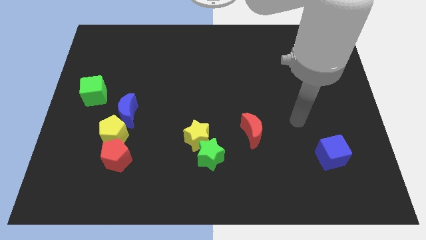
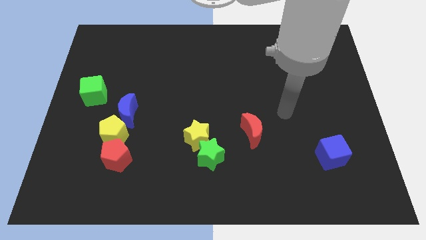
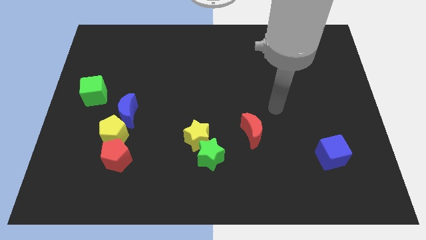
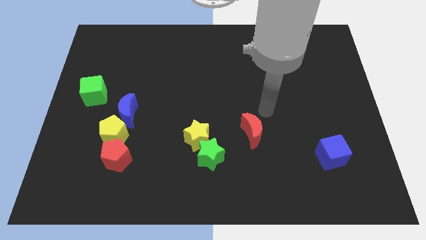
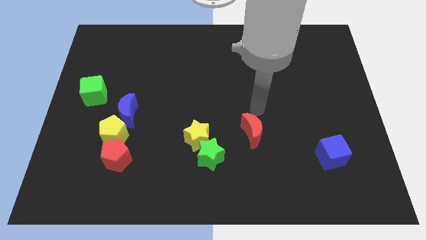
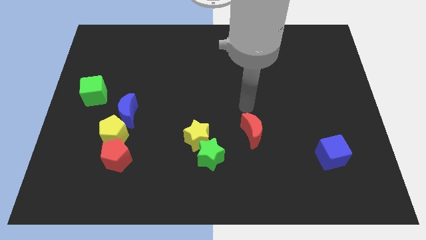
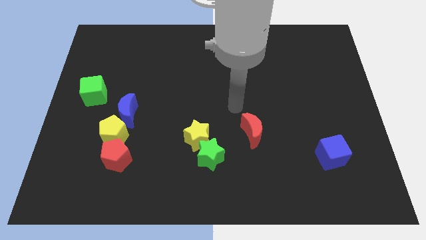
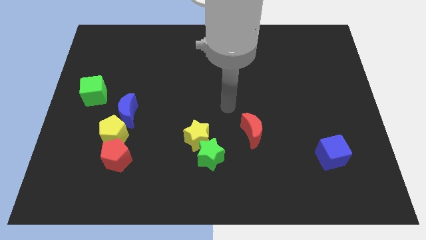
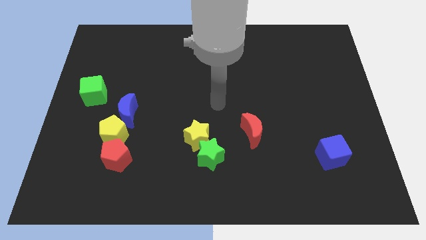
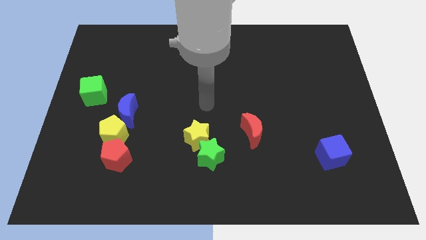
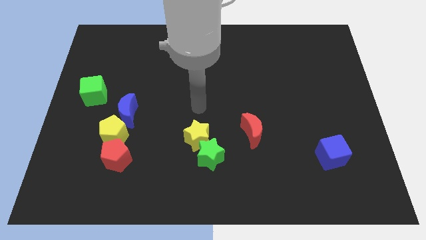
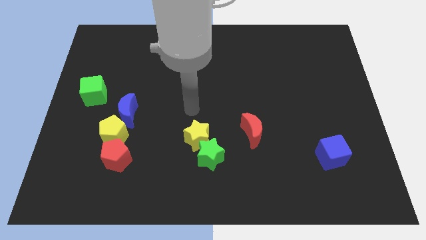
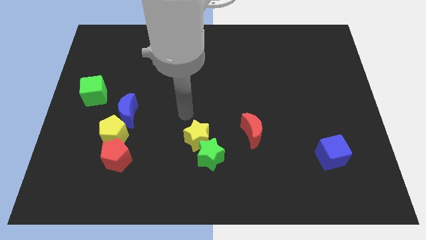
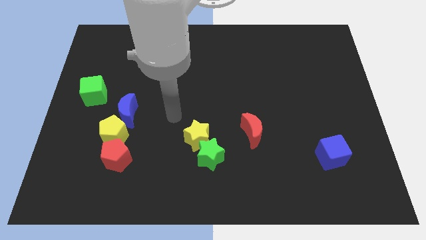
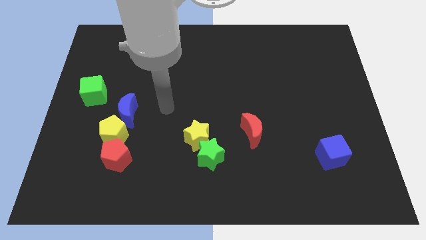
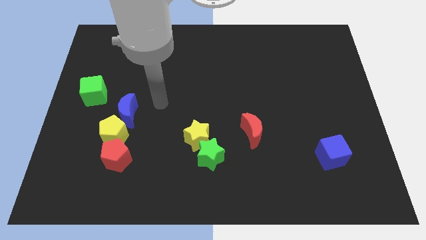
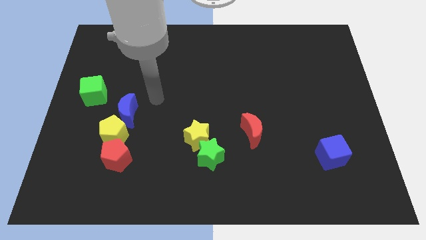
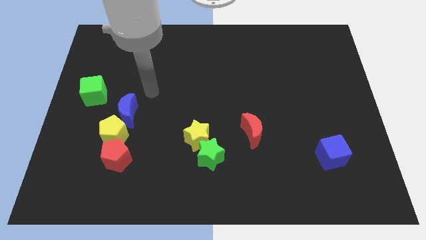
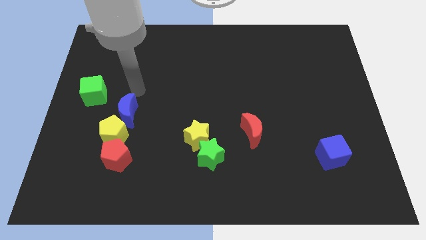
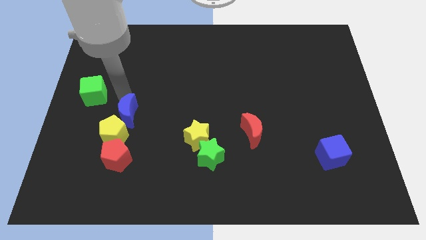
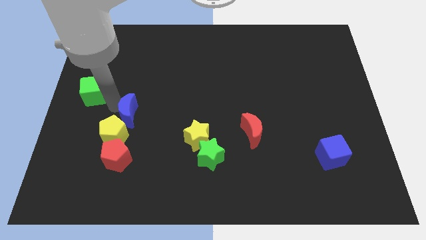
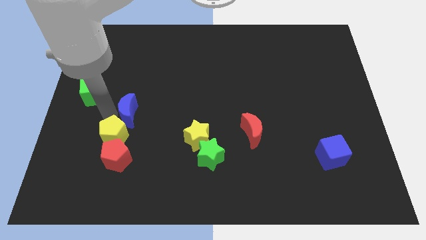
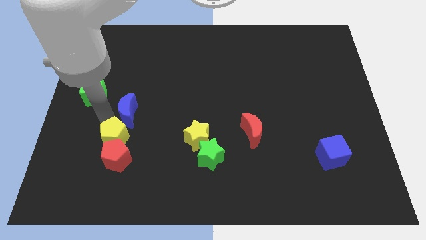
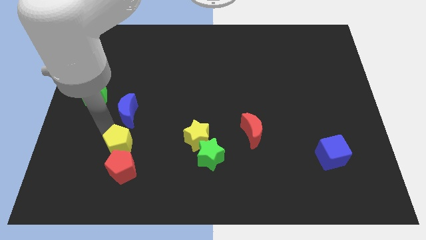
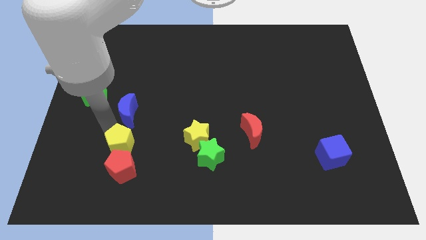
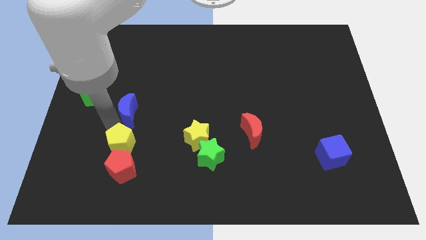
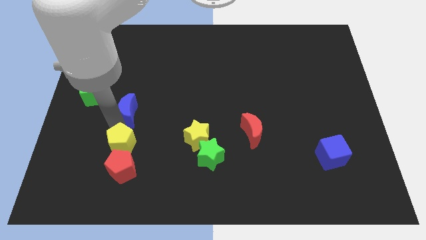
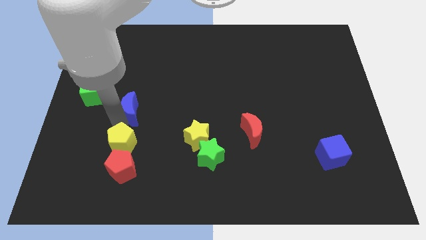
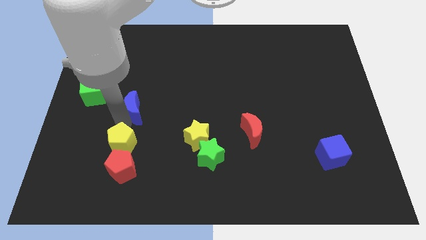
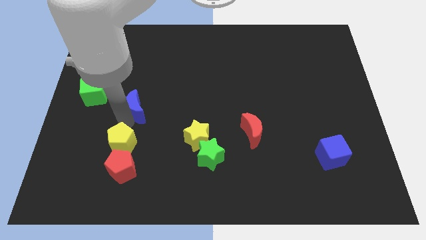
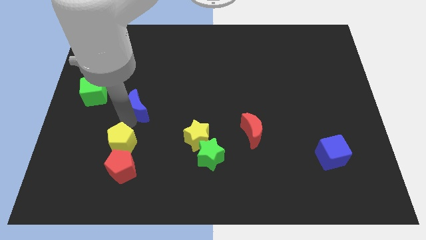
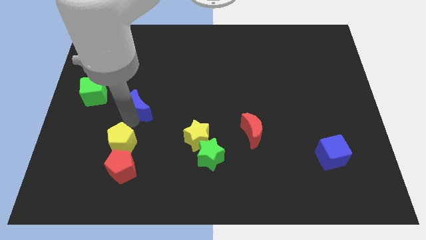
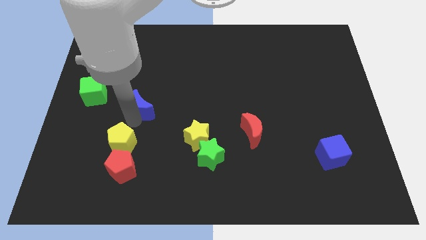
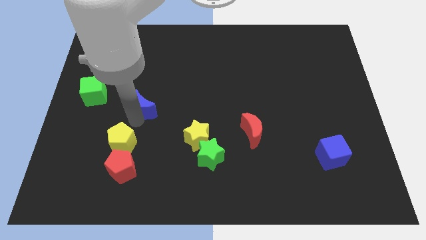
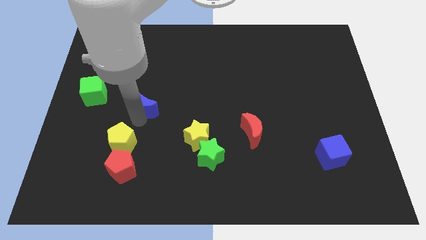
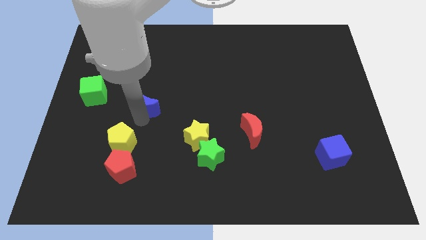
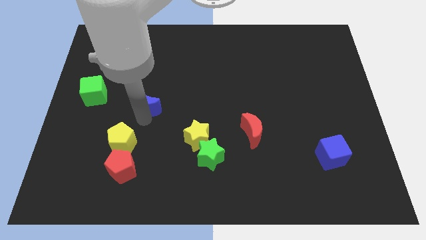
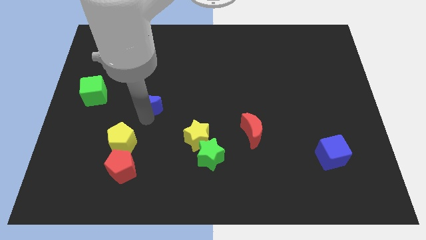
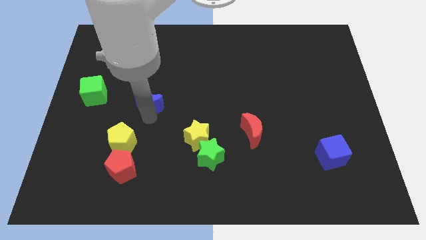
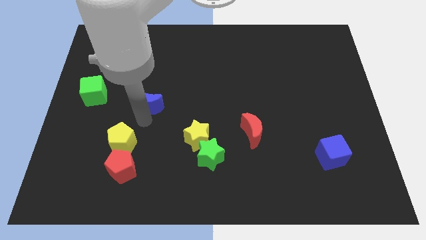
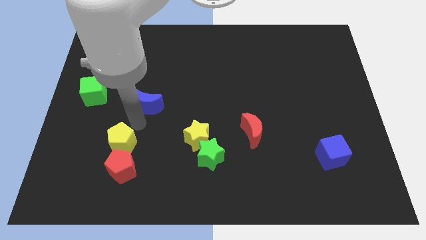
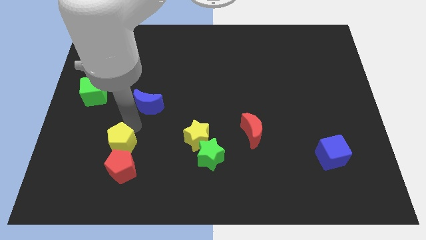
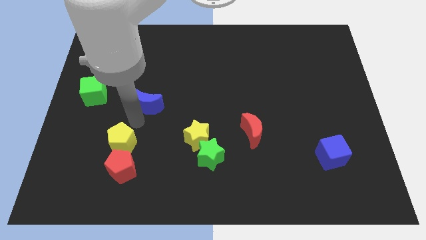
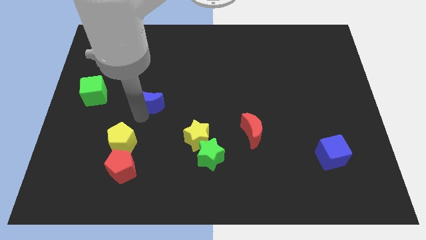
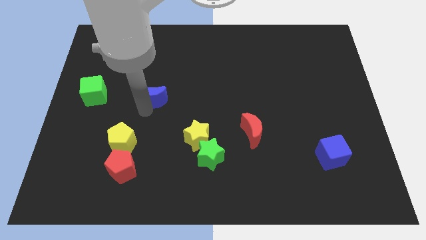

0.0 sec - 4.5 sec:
slightly slide the blue moon diagonally upwards and to the right

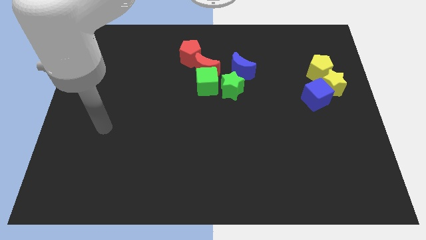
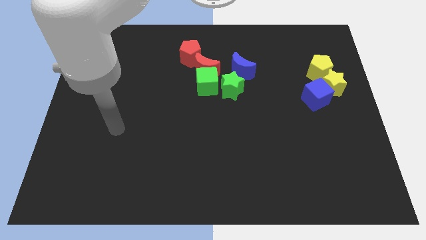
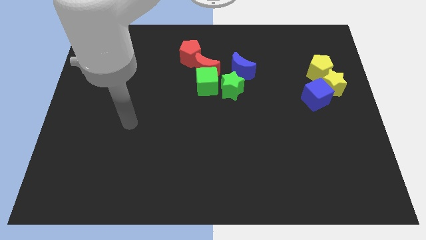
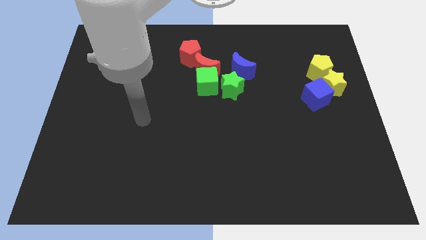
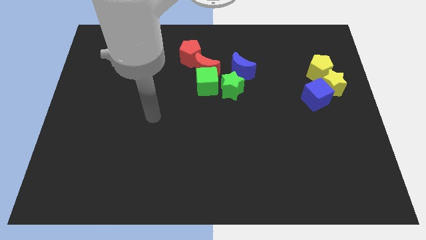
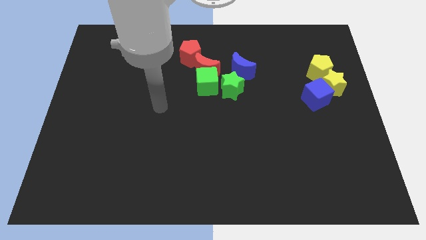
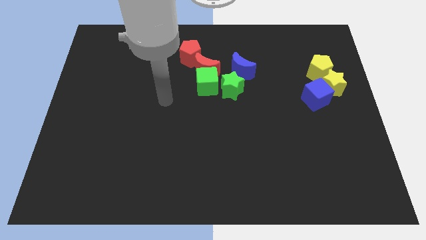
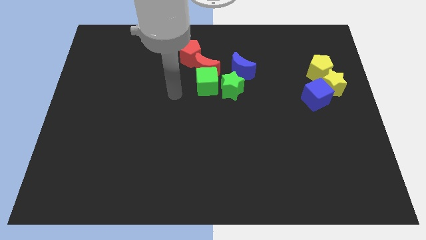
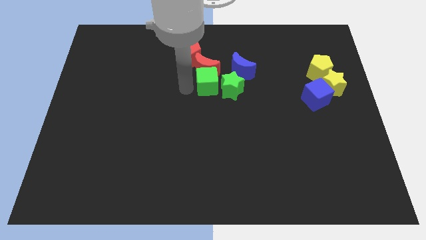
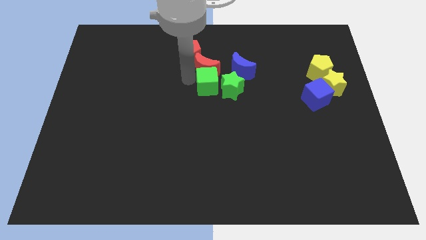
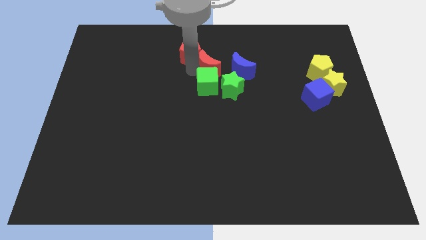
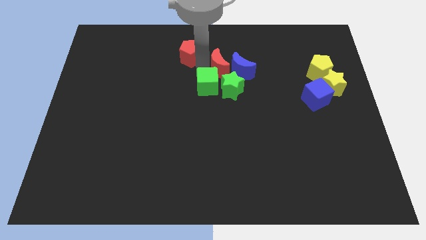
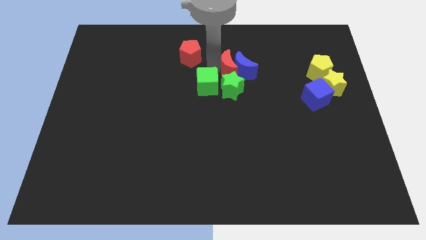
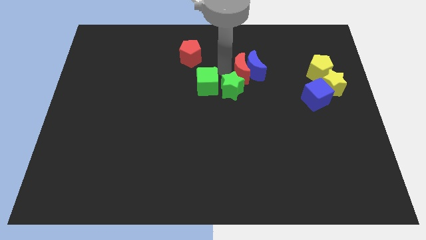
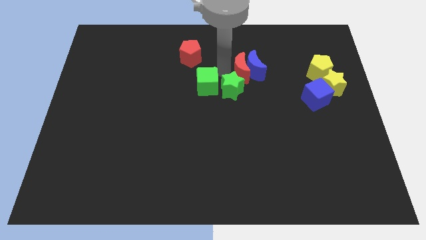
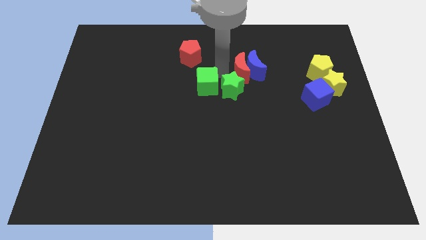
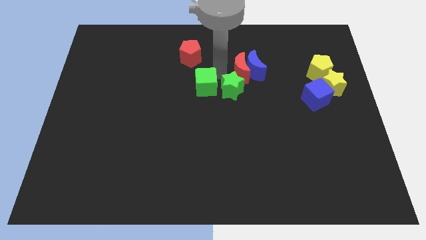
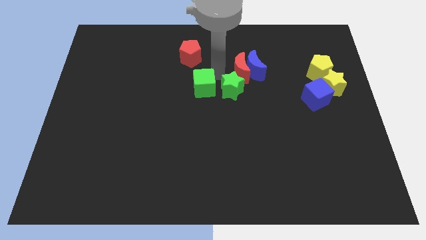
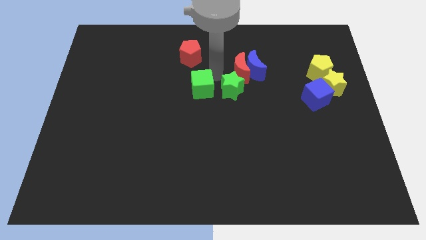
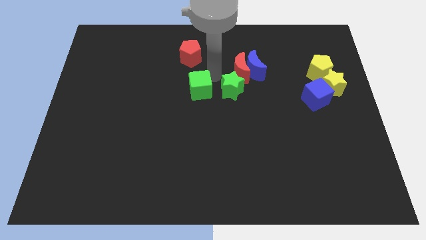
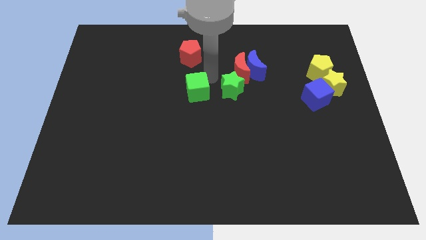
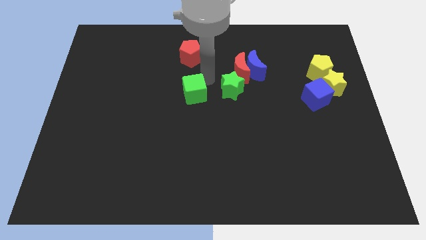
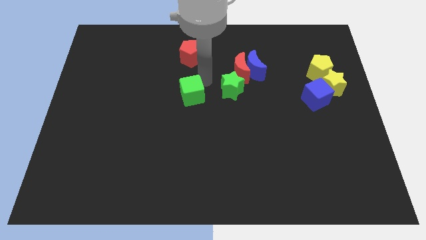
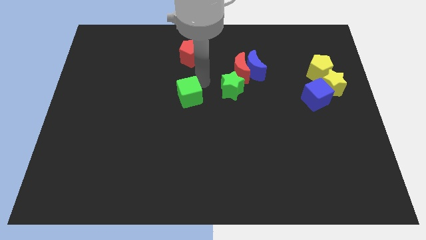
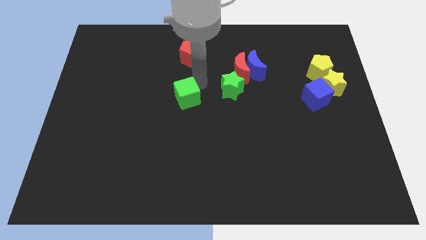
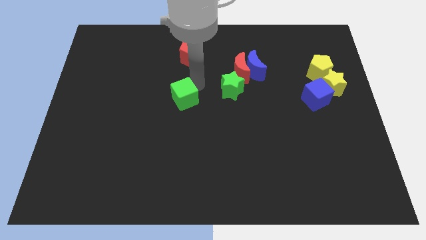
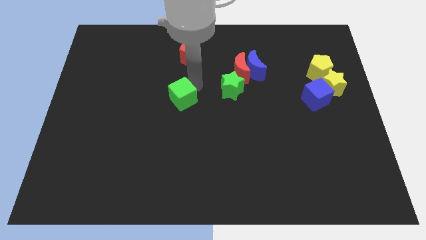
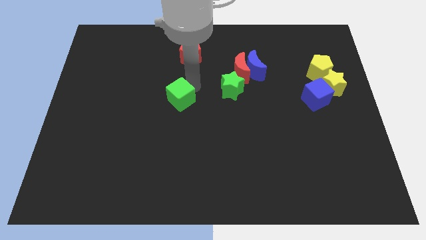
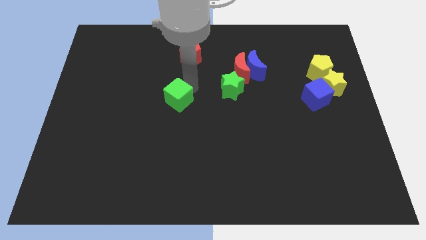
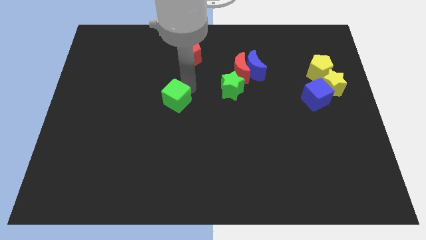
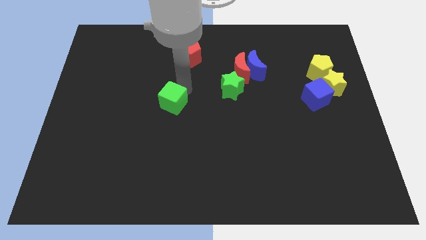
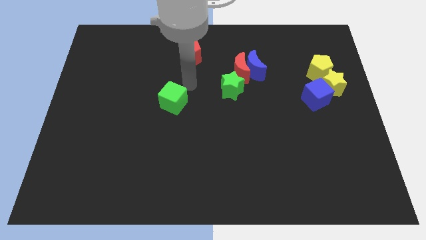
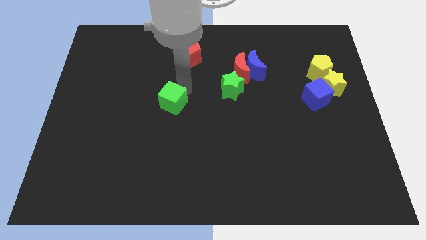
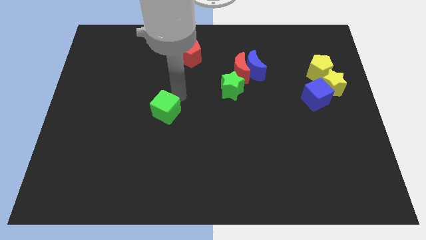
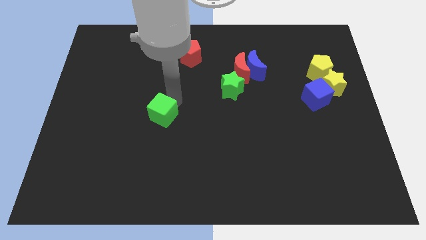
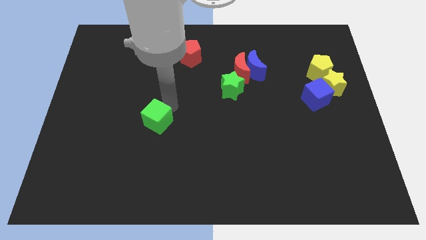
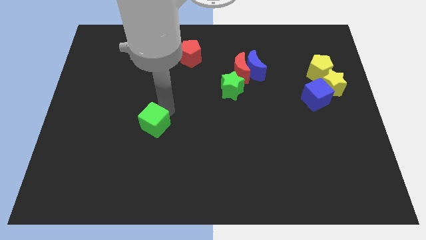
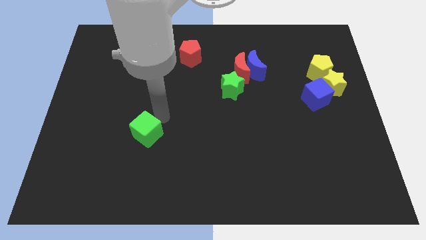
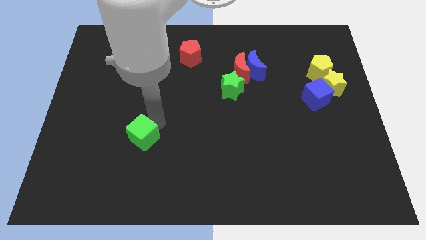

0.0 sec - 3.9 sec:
push the green cube downwards and left

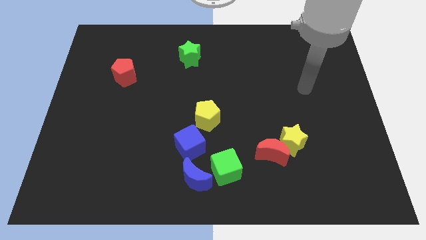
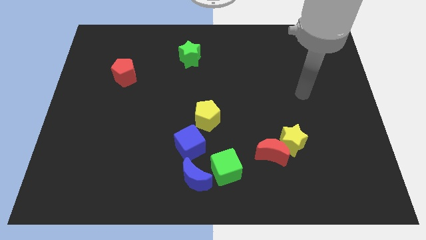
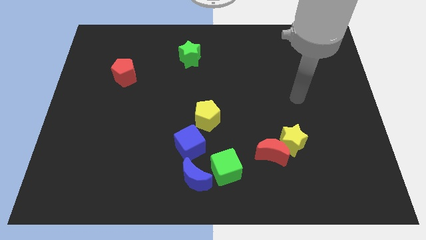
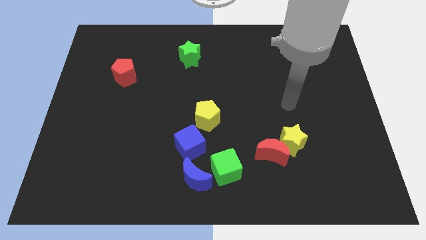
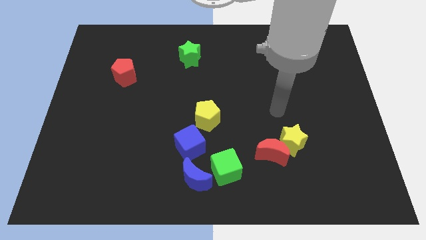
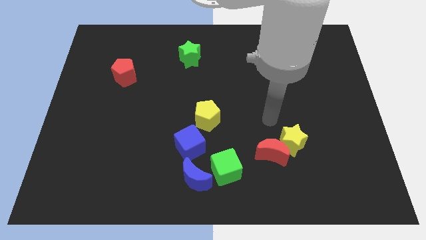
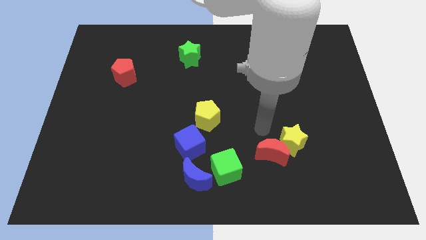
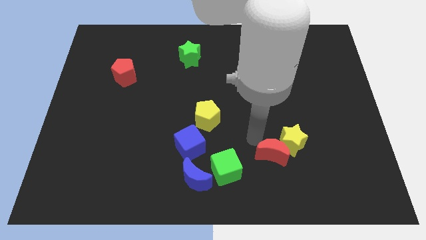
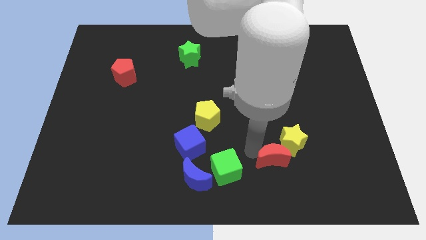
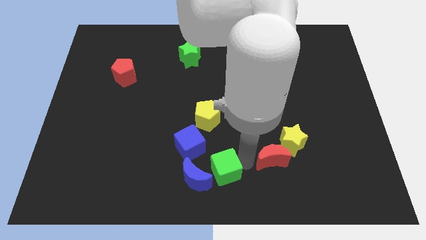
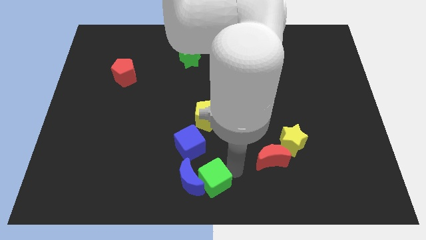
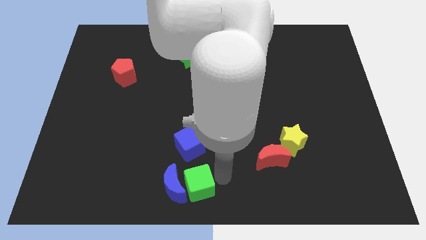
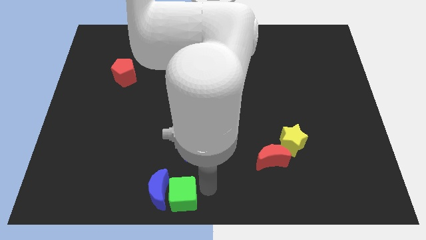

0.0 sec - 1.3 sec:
slightly move the blue moon left
